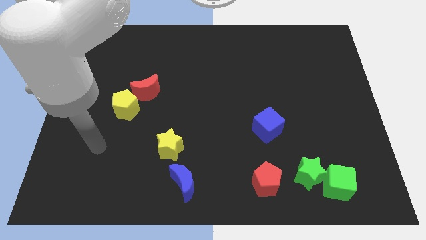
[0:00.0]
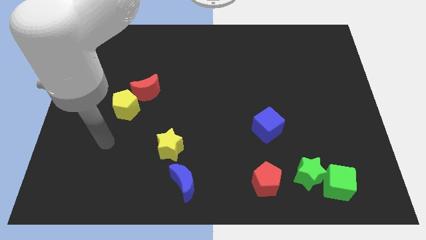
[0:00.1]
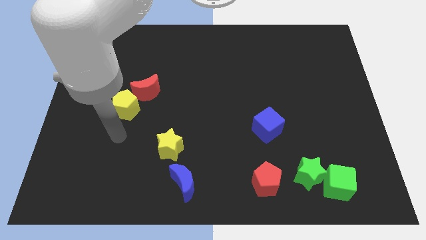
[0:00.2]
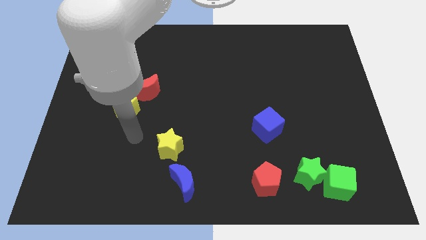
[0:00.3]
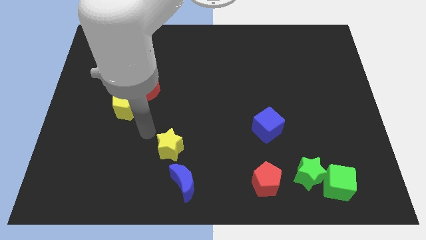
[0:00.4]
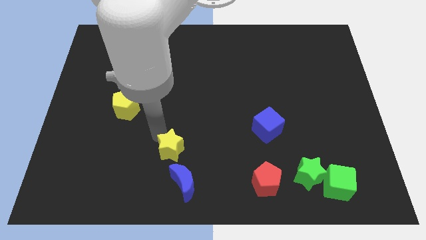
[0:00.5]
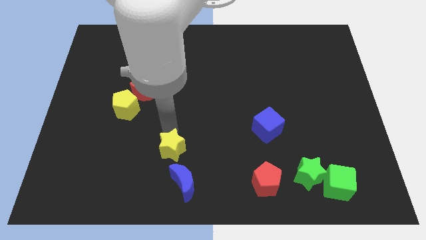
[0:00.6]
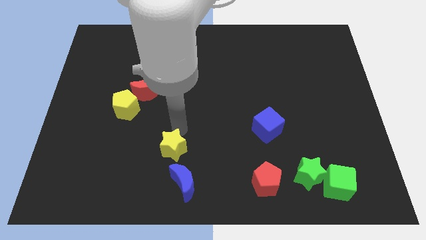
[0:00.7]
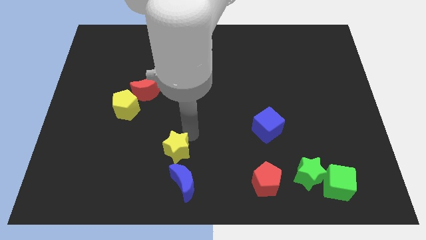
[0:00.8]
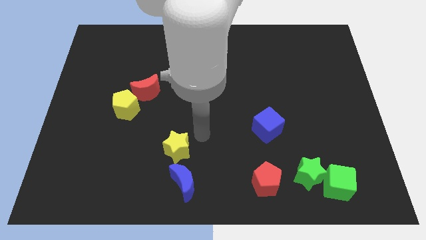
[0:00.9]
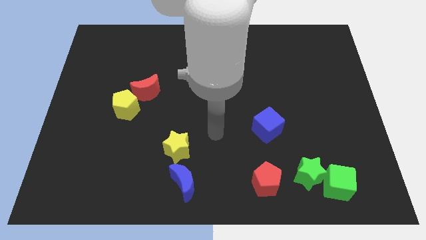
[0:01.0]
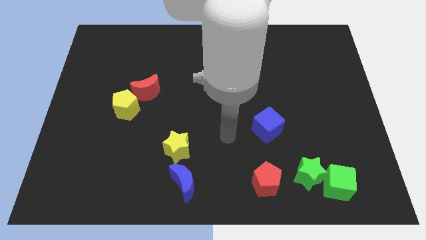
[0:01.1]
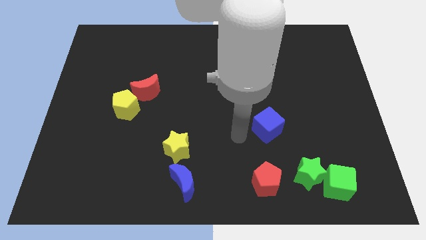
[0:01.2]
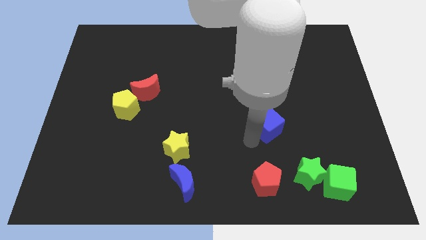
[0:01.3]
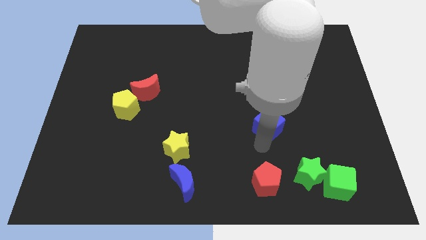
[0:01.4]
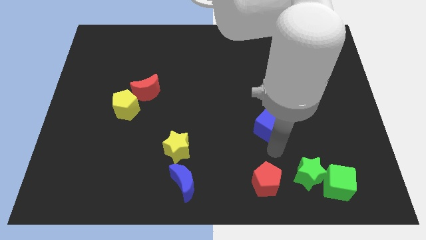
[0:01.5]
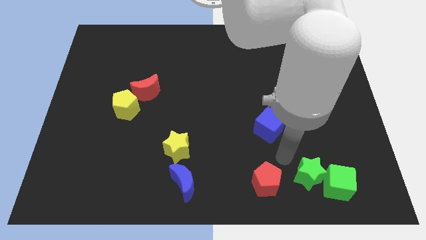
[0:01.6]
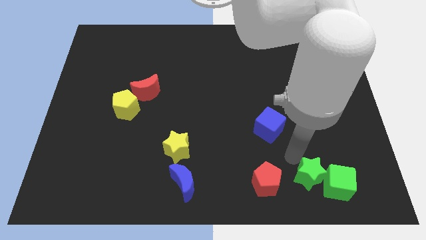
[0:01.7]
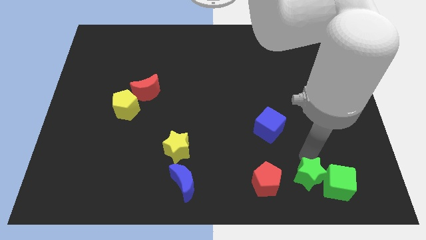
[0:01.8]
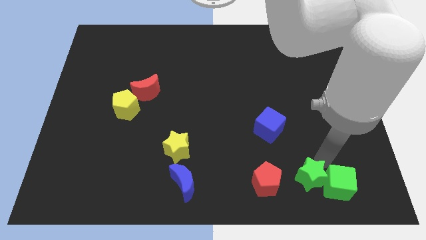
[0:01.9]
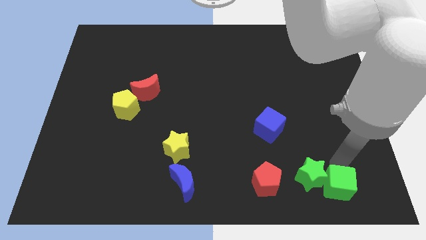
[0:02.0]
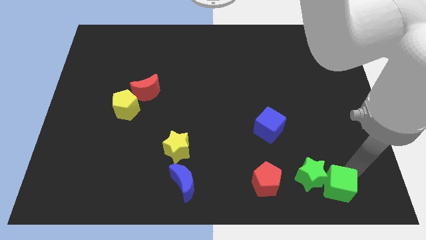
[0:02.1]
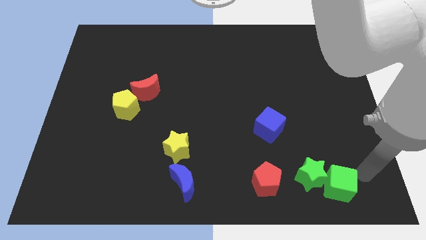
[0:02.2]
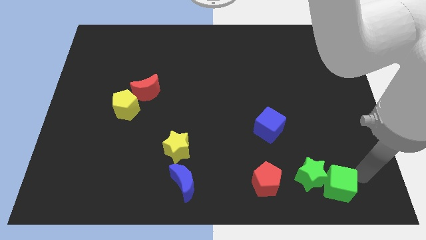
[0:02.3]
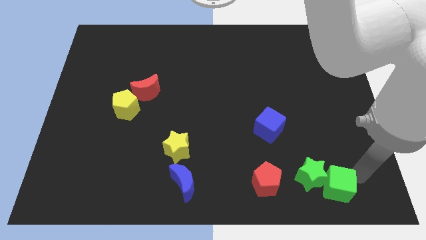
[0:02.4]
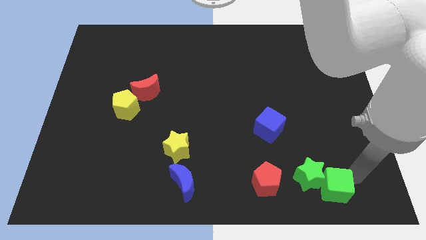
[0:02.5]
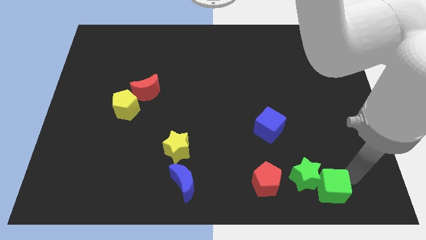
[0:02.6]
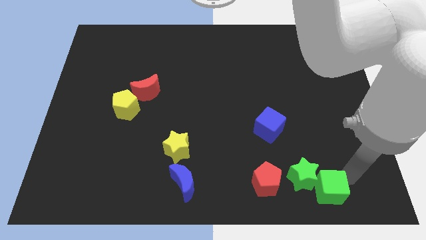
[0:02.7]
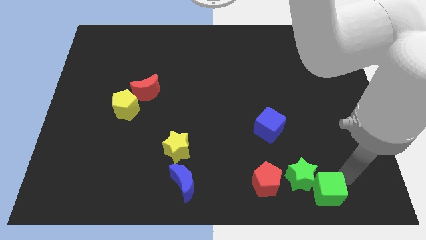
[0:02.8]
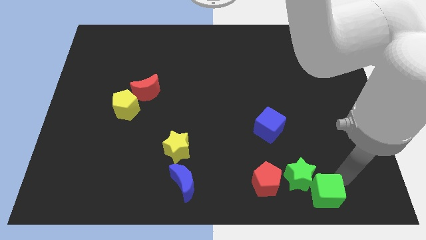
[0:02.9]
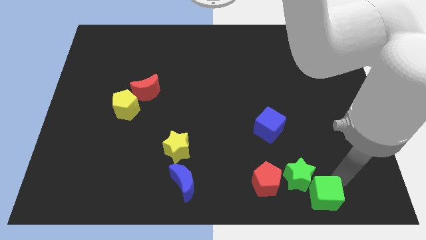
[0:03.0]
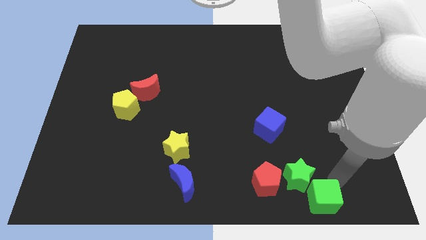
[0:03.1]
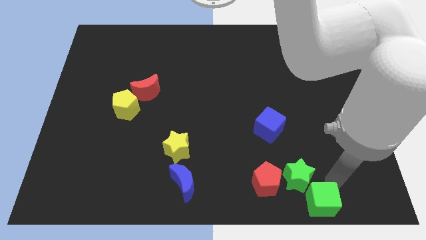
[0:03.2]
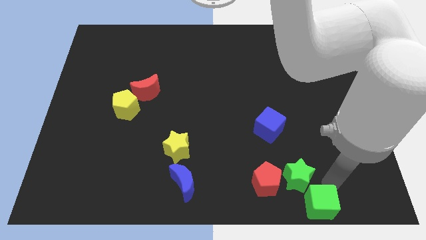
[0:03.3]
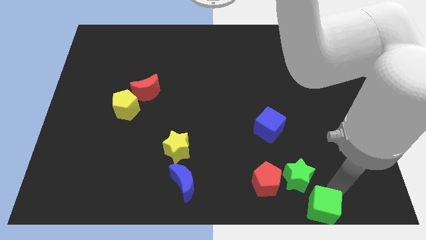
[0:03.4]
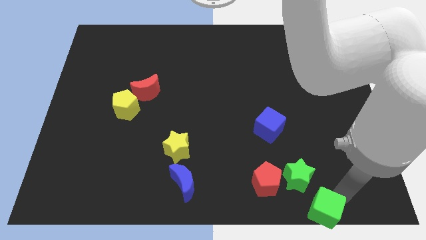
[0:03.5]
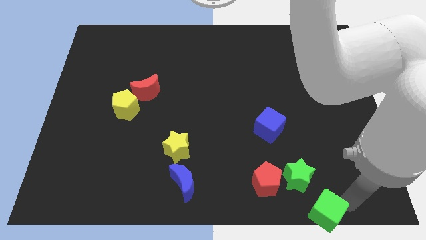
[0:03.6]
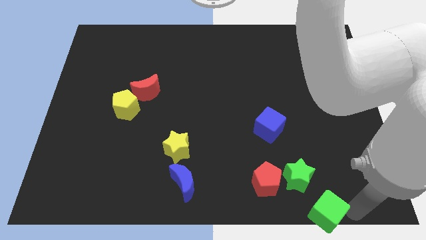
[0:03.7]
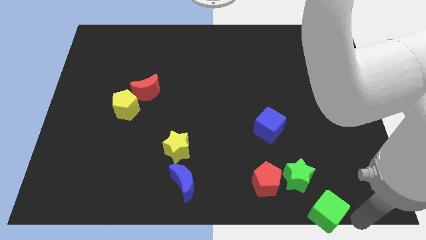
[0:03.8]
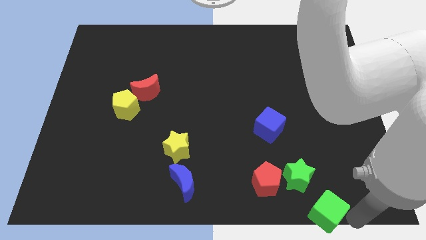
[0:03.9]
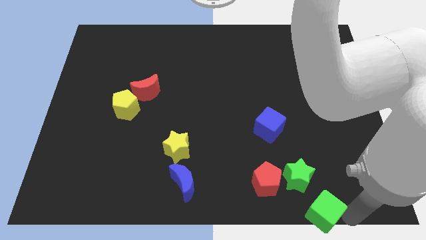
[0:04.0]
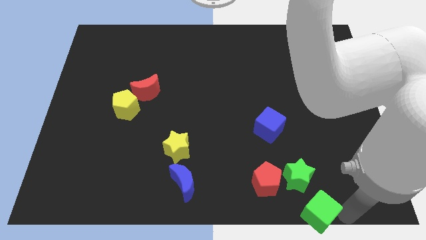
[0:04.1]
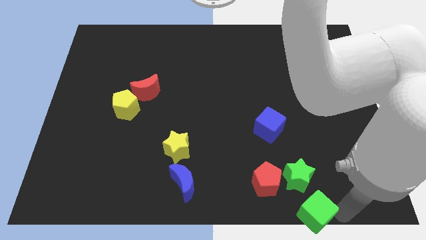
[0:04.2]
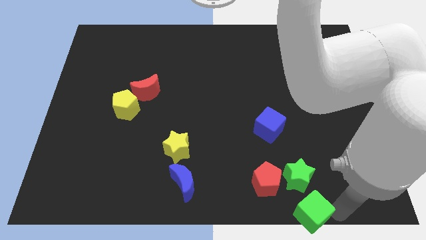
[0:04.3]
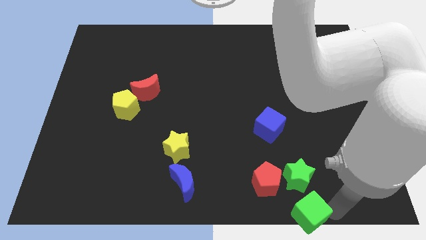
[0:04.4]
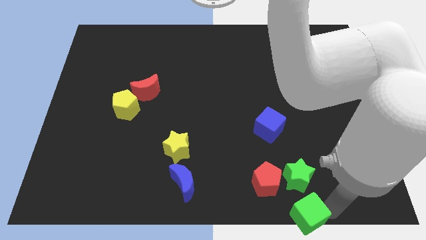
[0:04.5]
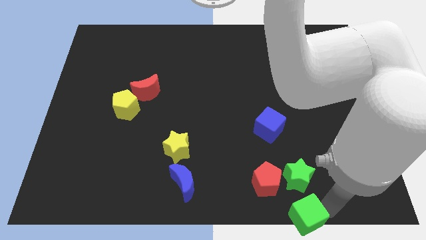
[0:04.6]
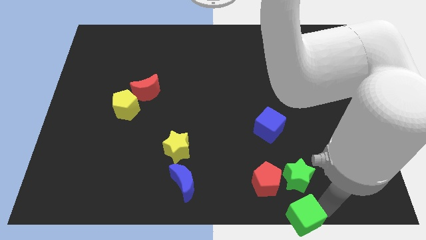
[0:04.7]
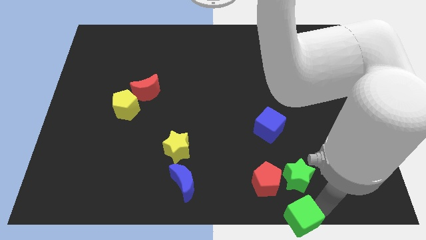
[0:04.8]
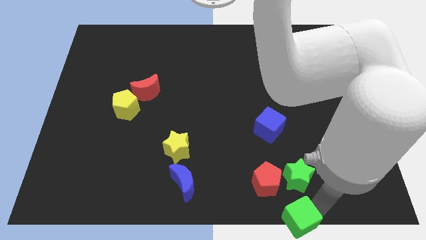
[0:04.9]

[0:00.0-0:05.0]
push the green cube a little bit to the left

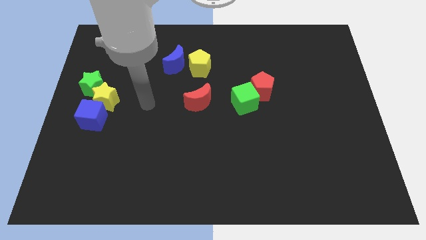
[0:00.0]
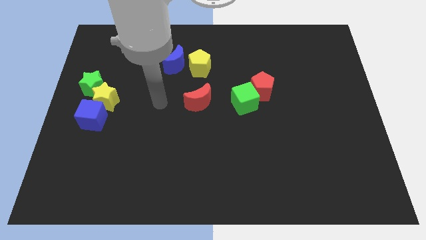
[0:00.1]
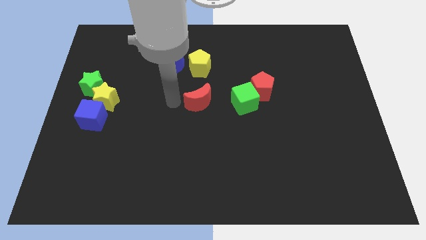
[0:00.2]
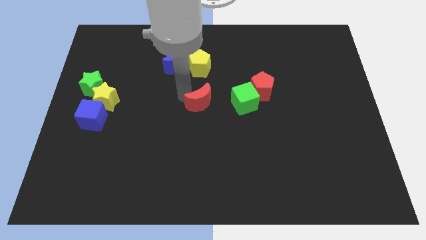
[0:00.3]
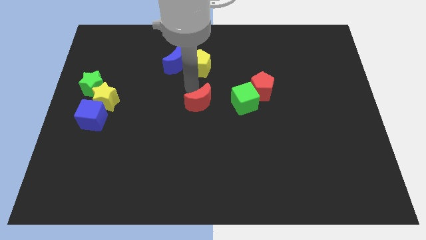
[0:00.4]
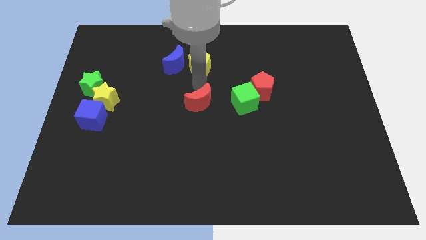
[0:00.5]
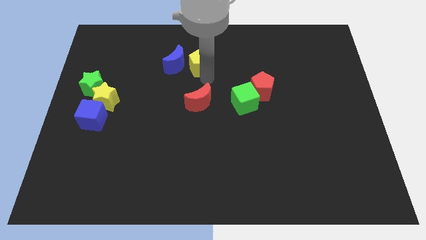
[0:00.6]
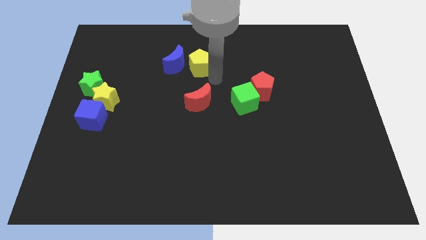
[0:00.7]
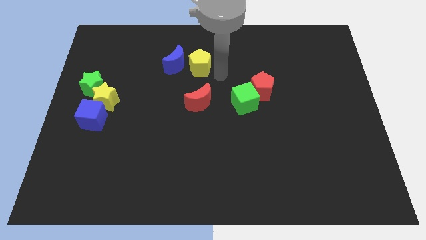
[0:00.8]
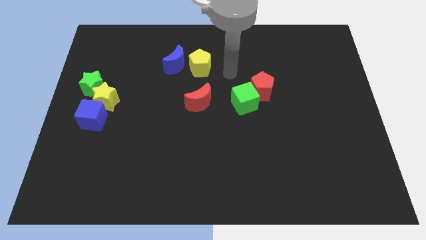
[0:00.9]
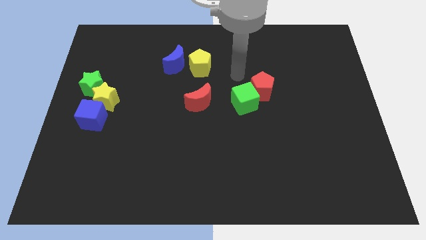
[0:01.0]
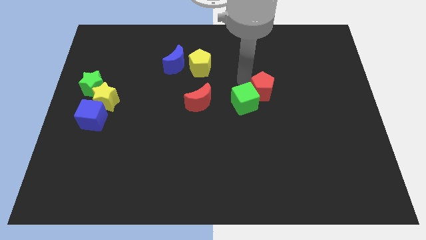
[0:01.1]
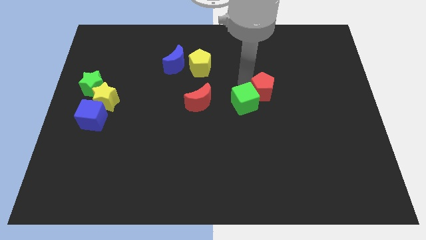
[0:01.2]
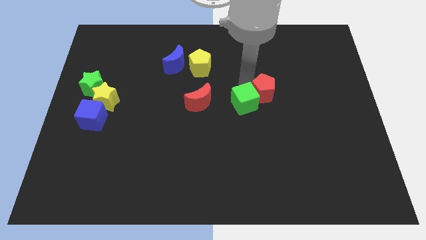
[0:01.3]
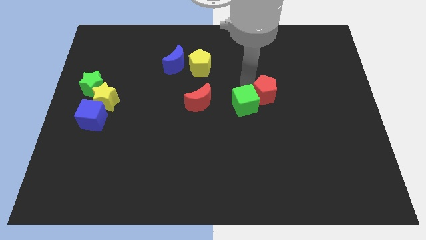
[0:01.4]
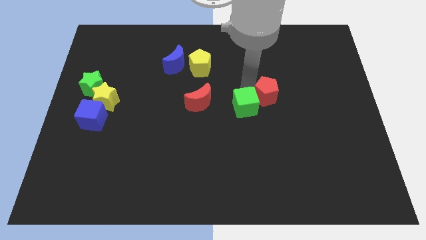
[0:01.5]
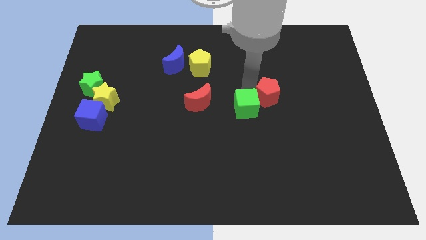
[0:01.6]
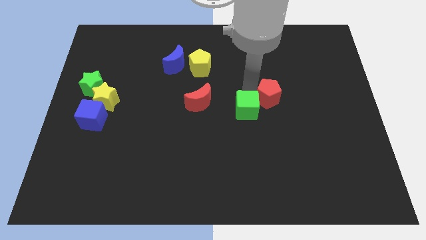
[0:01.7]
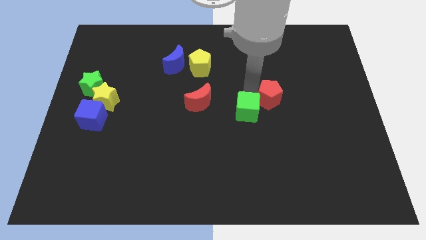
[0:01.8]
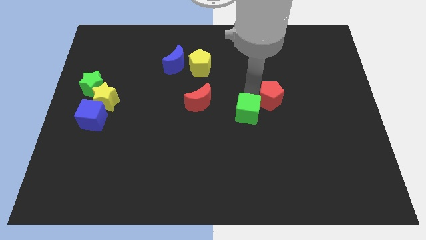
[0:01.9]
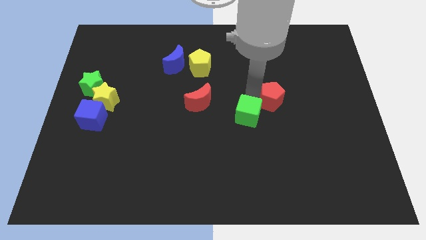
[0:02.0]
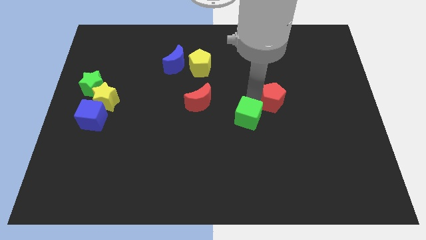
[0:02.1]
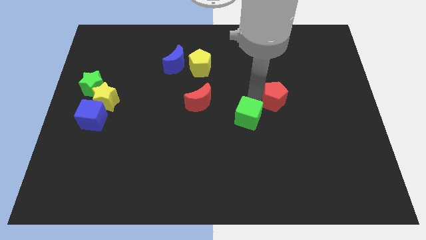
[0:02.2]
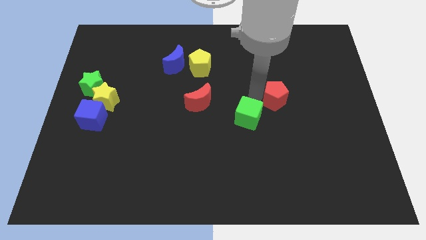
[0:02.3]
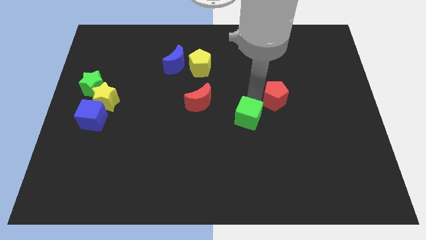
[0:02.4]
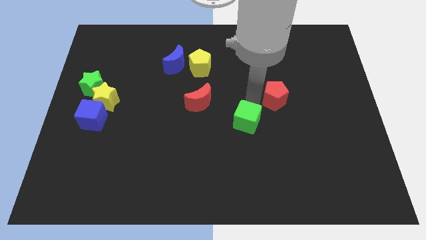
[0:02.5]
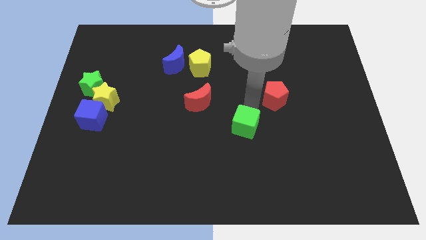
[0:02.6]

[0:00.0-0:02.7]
slightly push the green cube downwards

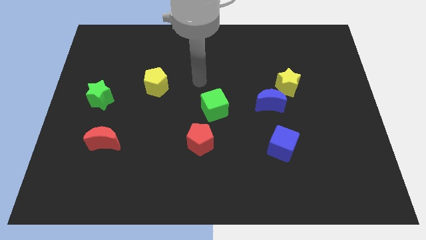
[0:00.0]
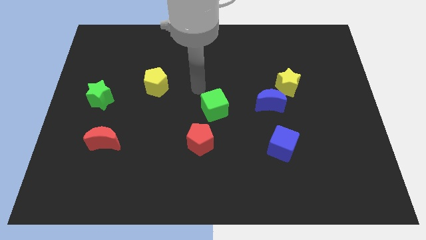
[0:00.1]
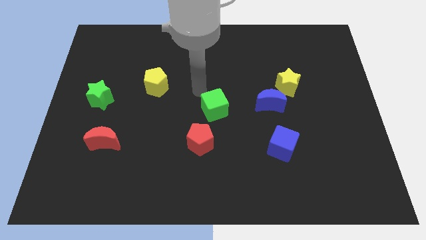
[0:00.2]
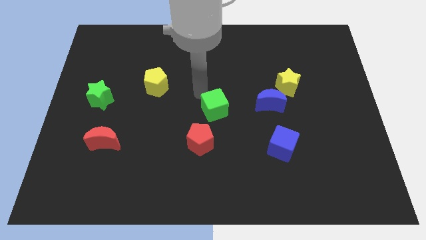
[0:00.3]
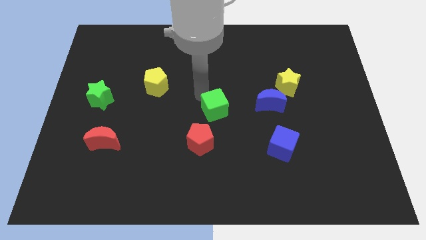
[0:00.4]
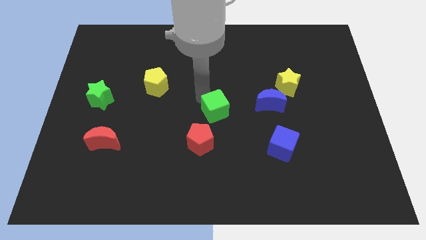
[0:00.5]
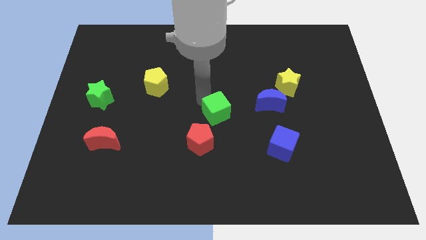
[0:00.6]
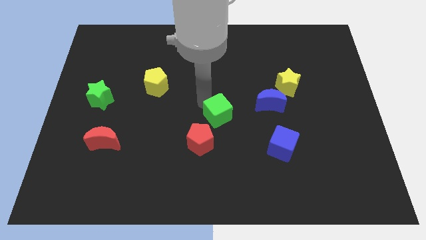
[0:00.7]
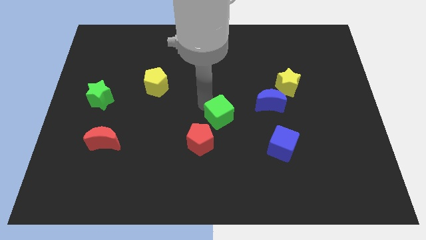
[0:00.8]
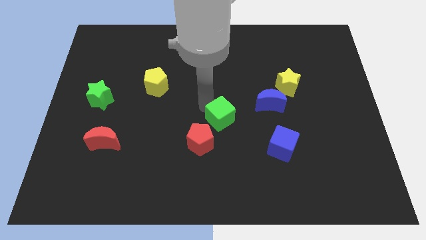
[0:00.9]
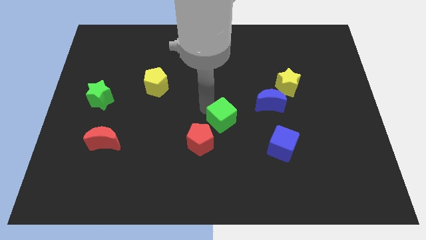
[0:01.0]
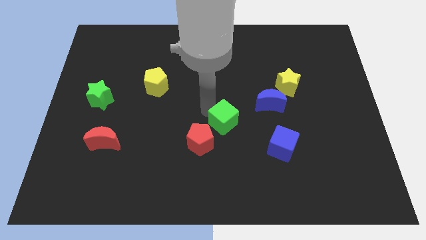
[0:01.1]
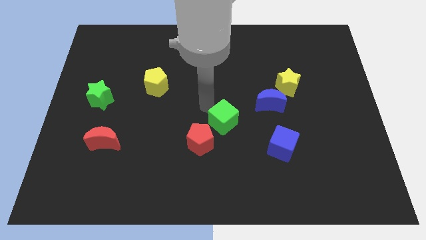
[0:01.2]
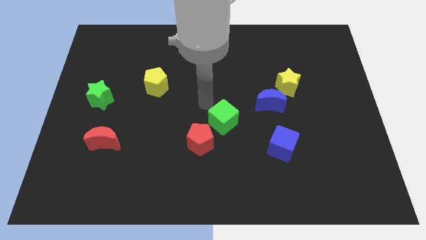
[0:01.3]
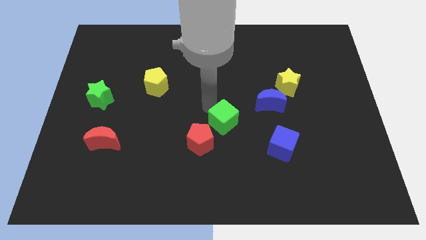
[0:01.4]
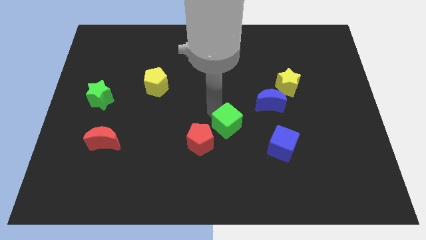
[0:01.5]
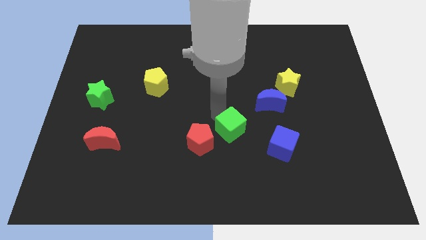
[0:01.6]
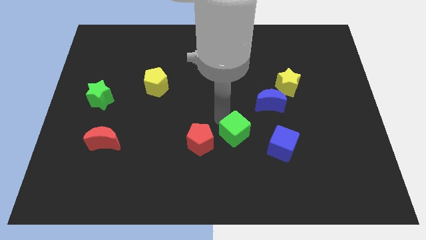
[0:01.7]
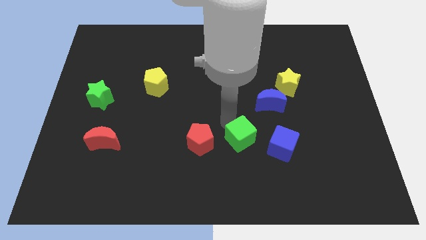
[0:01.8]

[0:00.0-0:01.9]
push the green cube down a little
